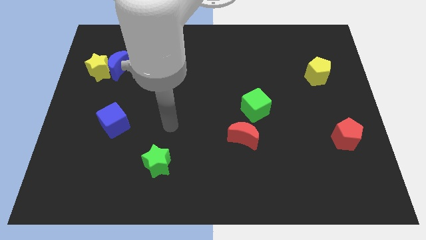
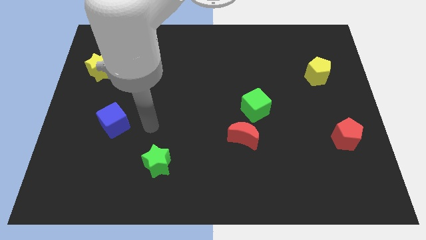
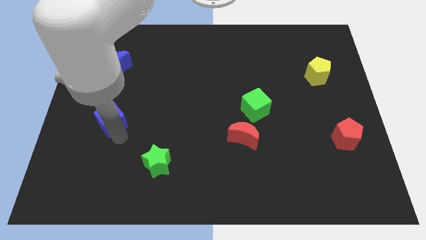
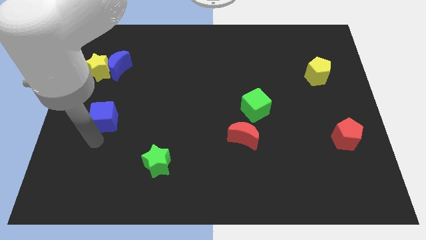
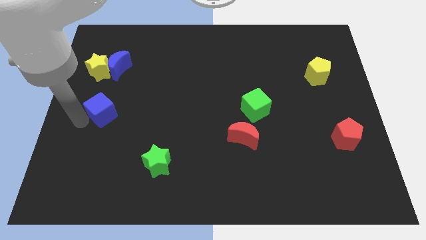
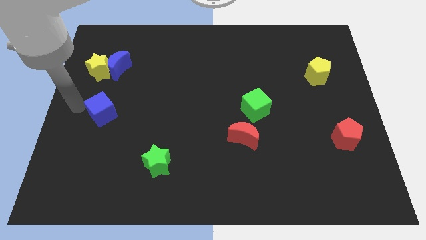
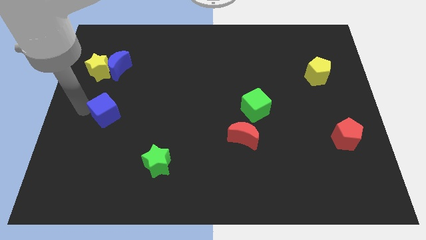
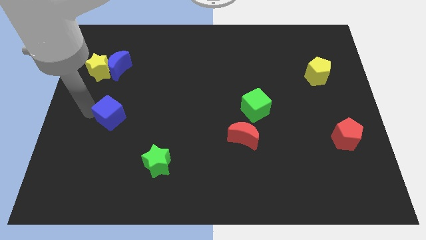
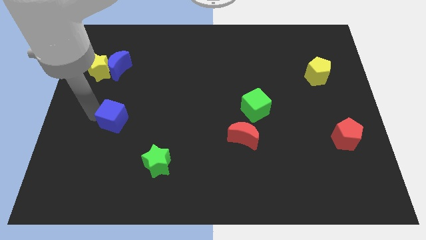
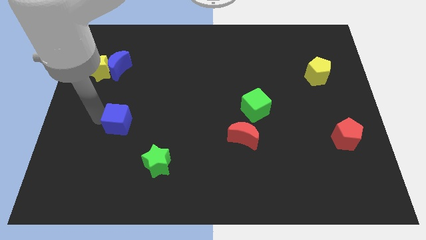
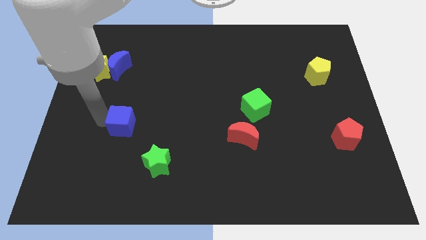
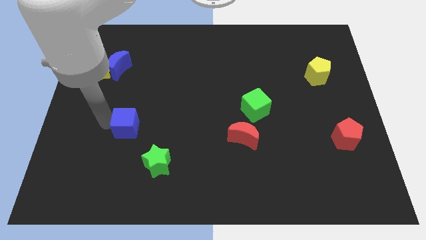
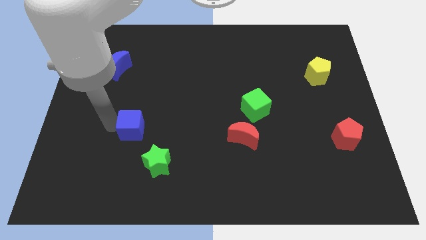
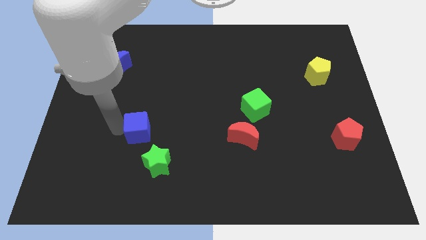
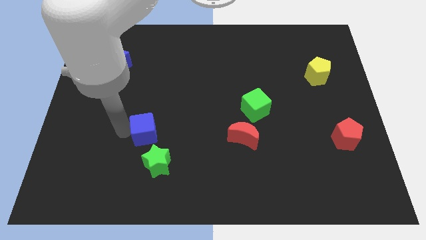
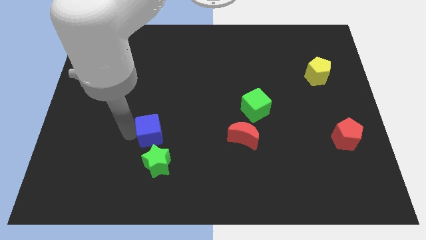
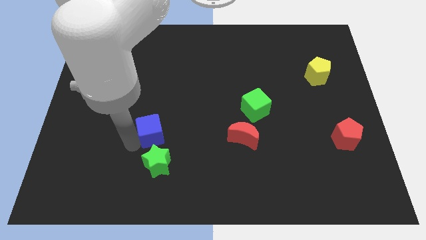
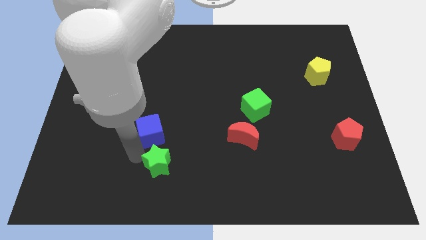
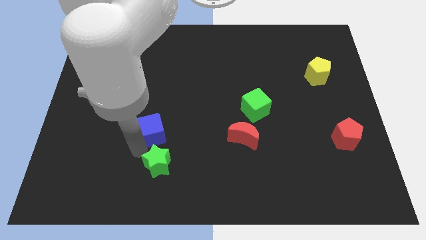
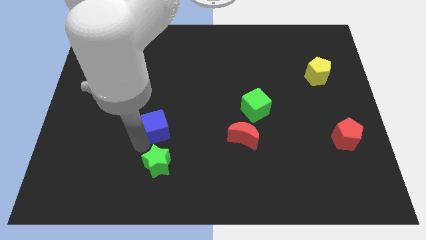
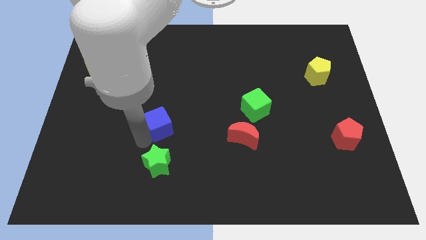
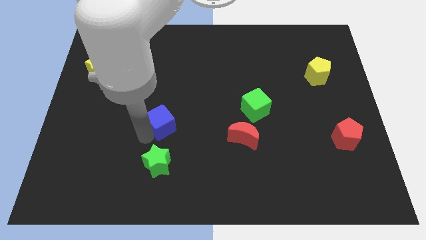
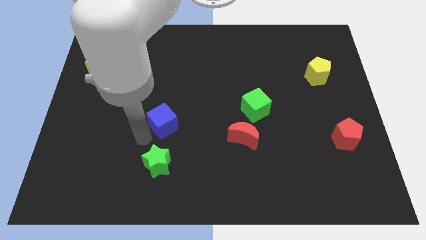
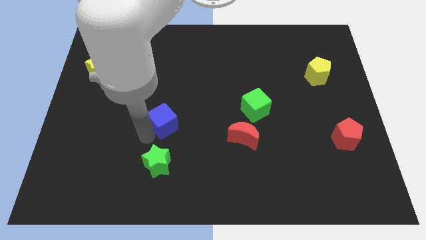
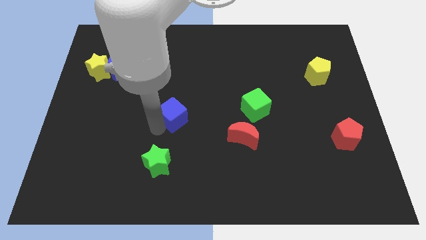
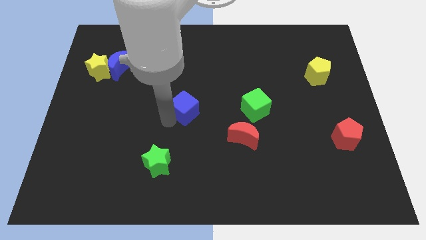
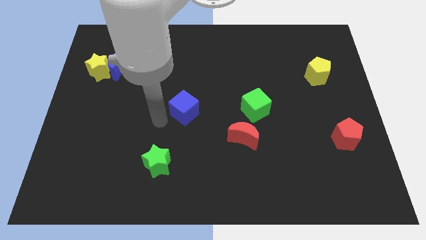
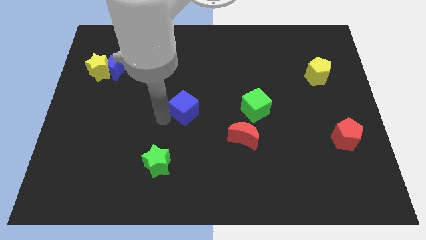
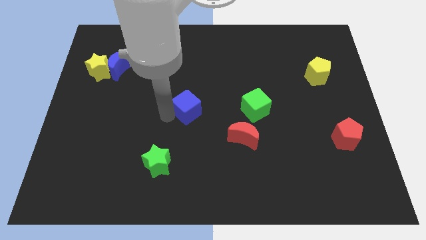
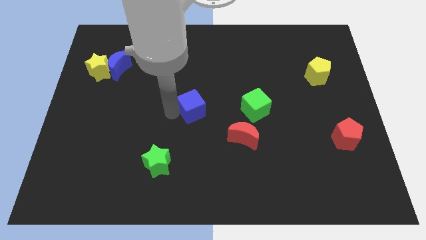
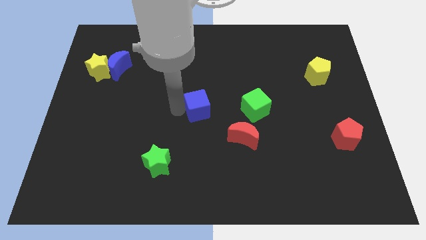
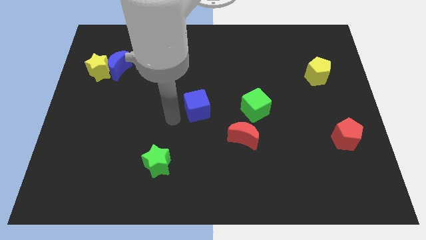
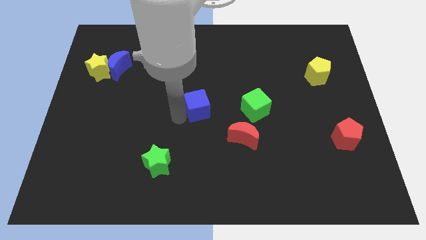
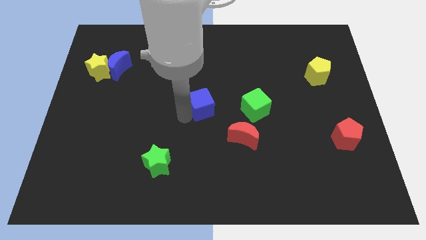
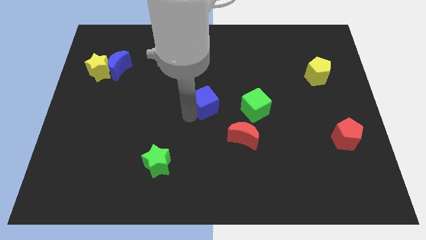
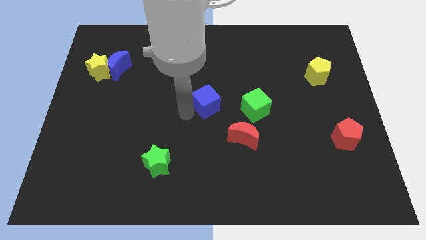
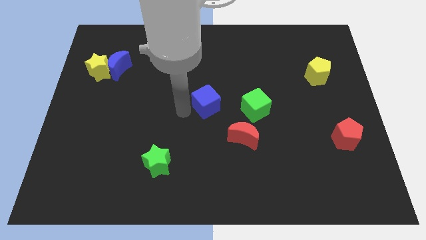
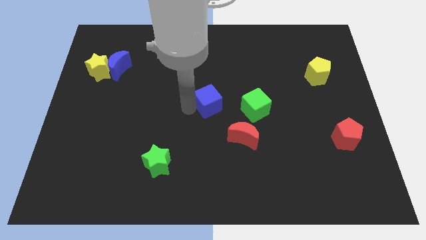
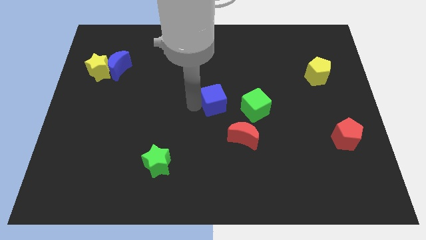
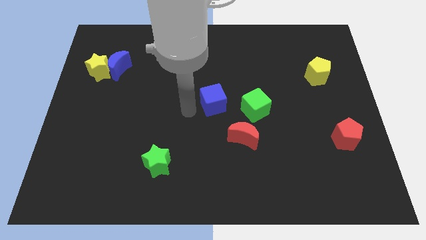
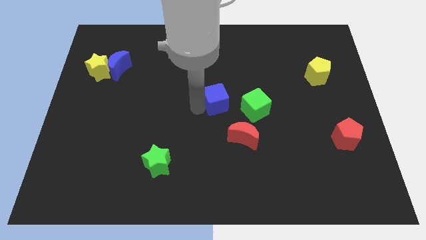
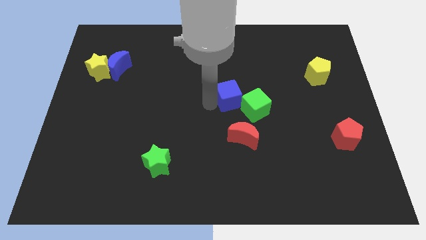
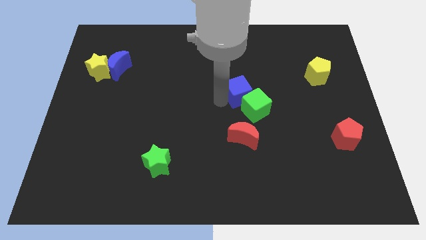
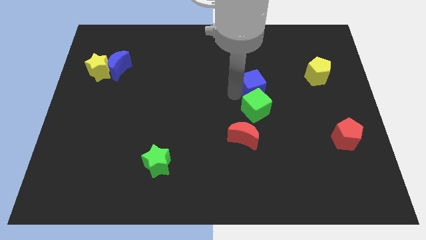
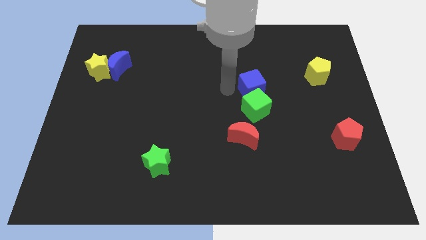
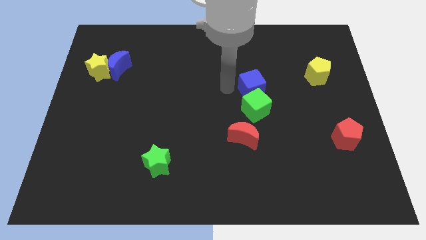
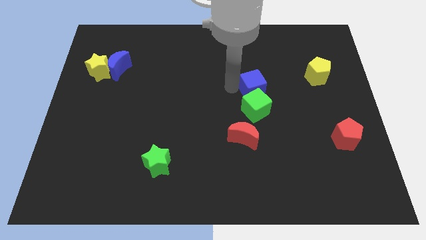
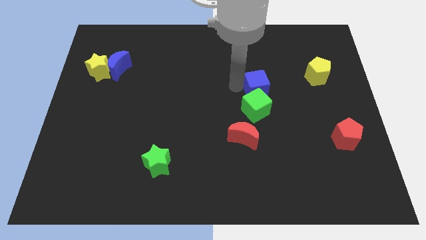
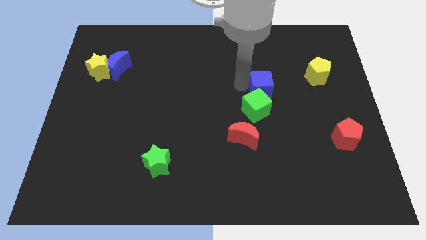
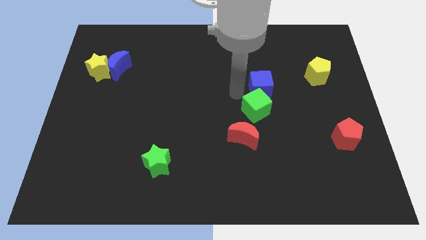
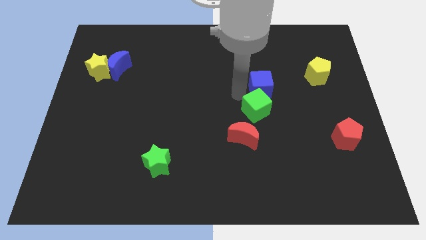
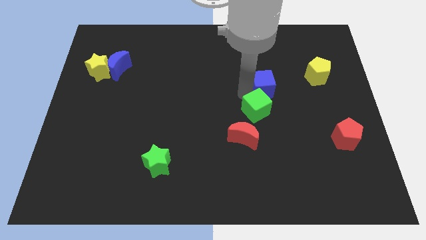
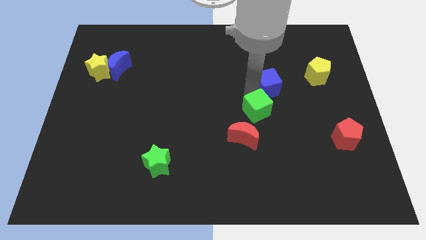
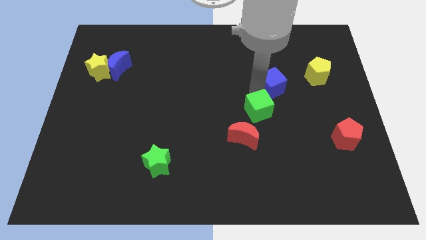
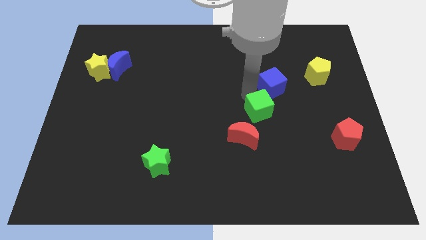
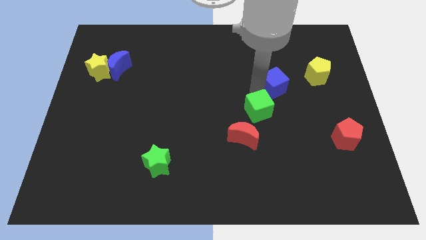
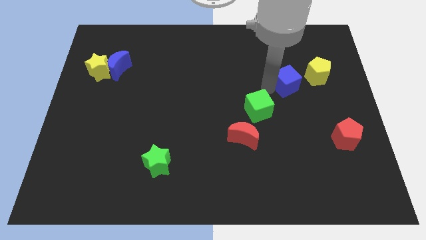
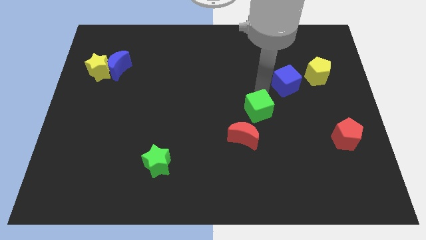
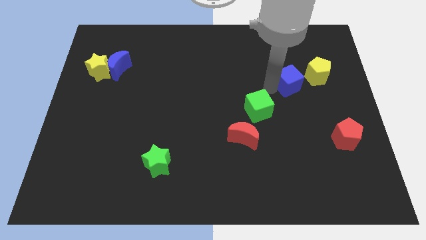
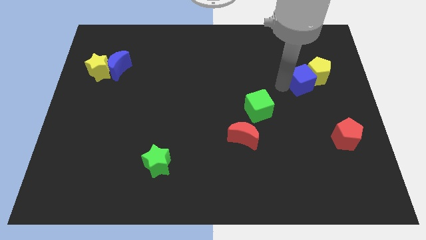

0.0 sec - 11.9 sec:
slide the blue cube close to the yellow pentagon

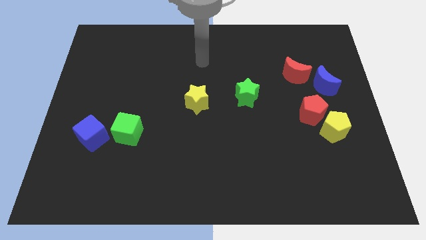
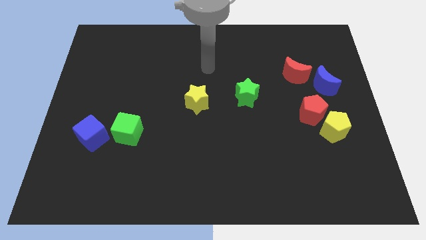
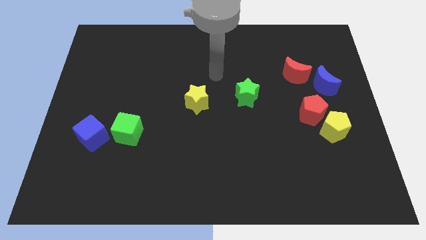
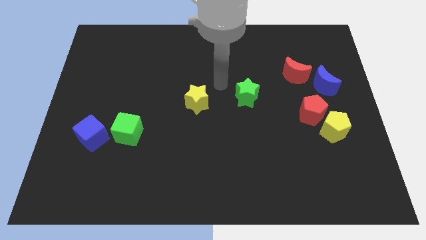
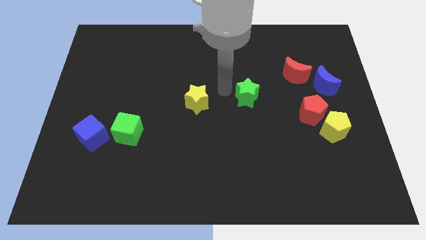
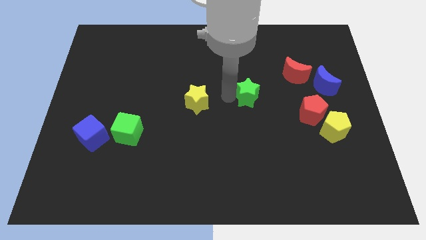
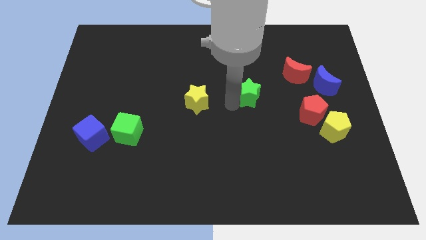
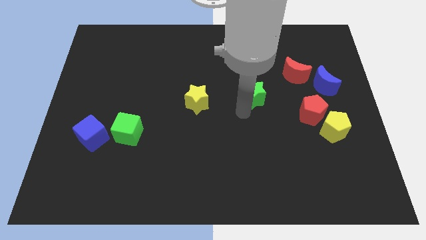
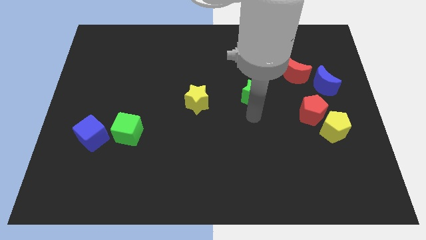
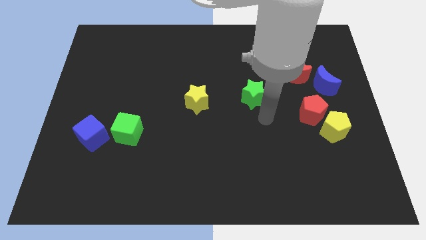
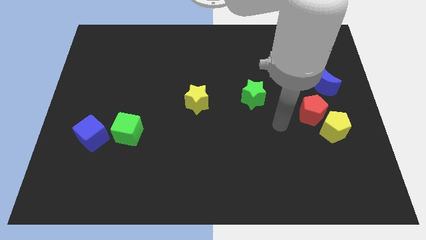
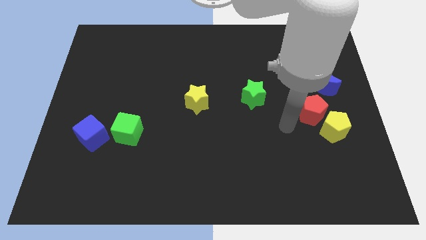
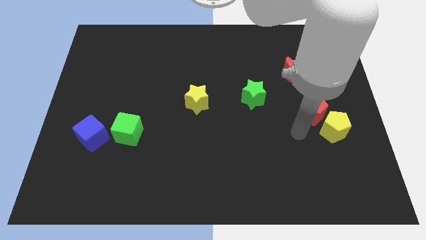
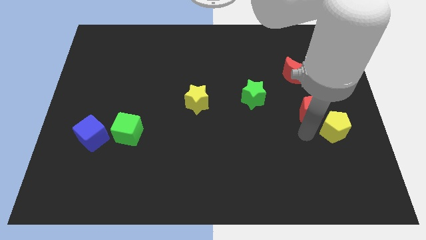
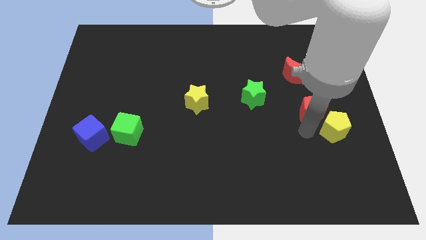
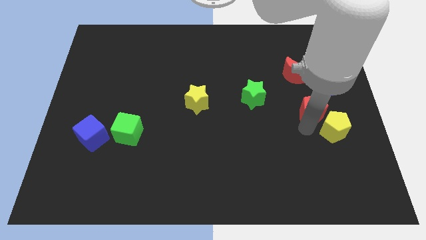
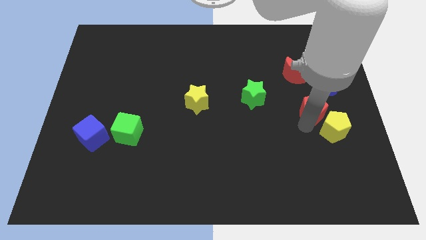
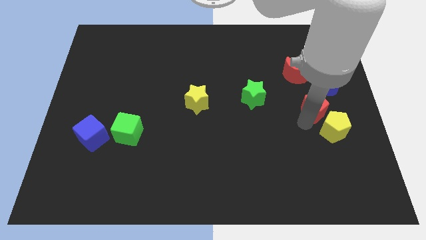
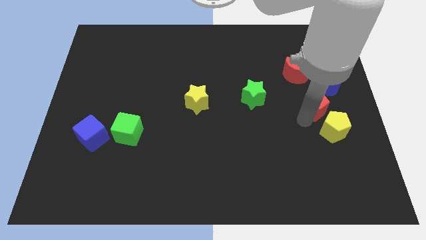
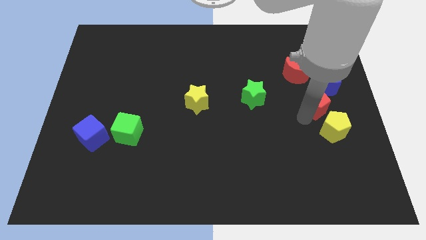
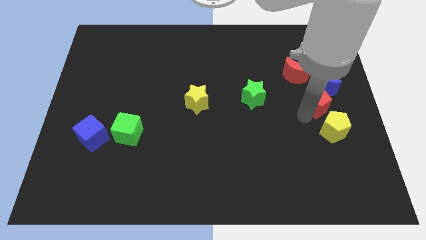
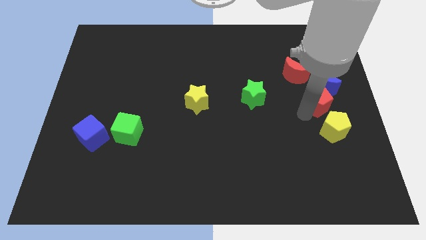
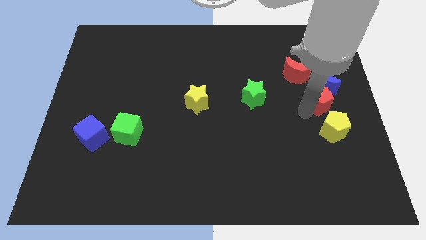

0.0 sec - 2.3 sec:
slide the red pentagon close to the blue moon
